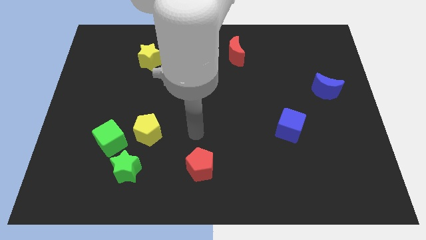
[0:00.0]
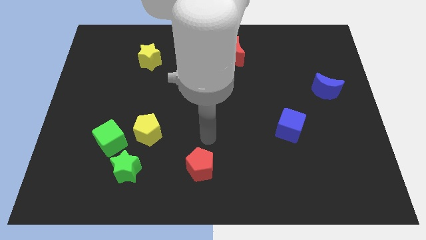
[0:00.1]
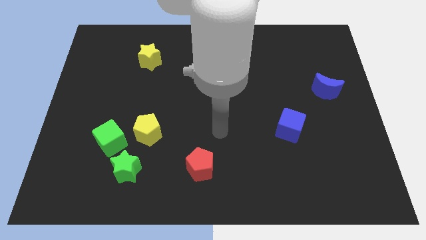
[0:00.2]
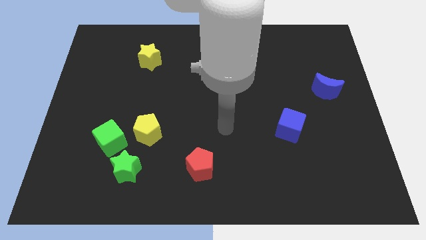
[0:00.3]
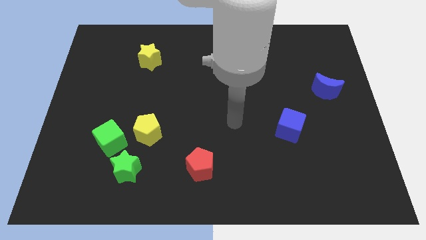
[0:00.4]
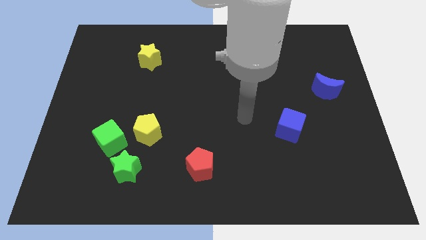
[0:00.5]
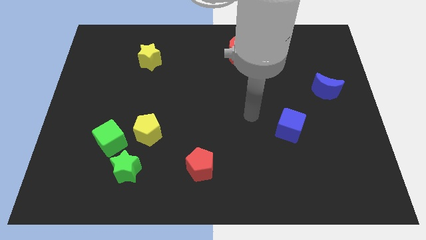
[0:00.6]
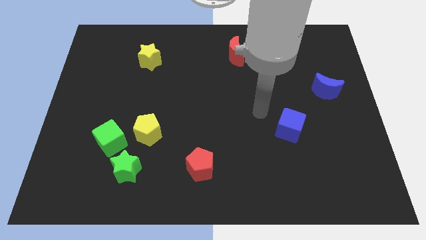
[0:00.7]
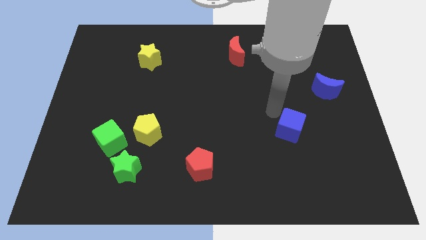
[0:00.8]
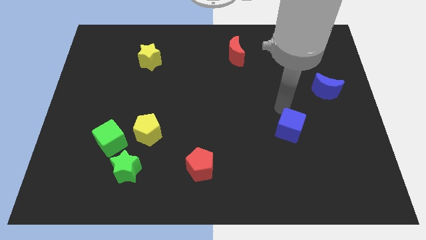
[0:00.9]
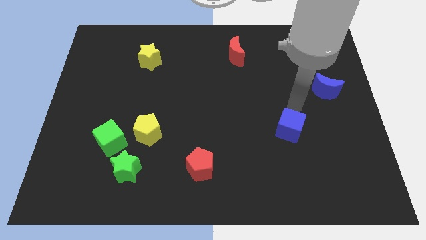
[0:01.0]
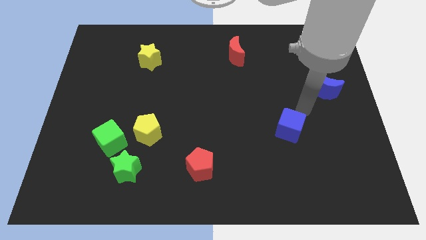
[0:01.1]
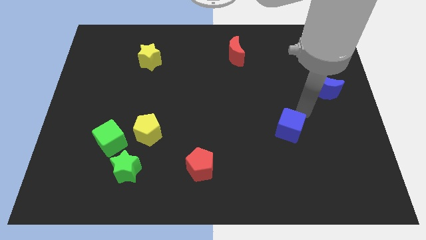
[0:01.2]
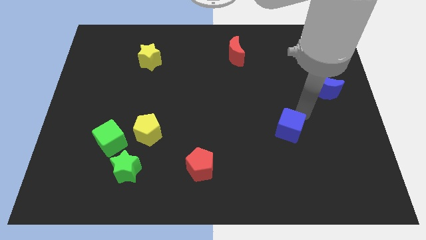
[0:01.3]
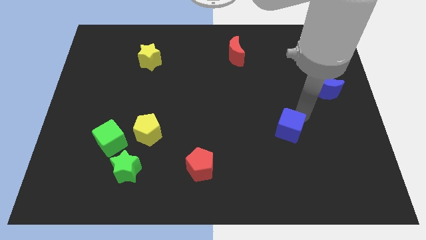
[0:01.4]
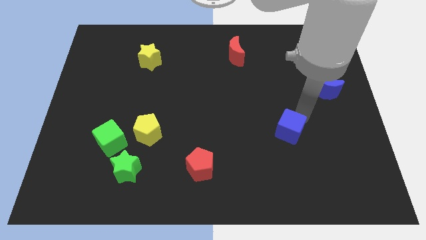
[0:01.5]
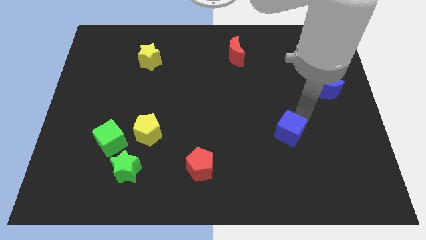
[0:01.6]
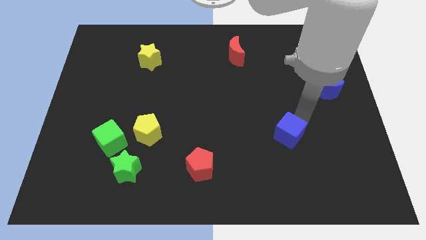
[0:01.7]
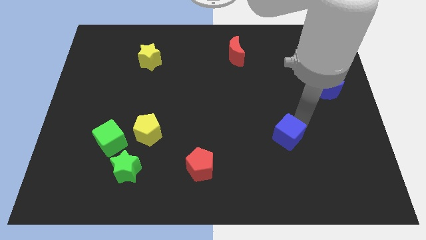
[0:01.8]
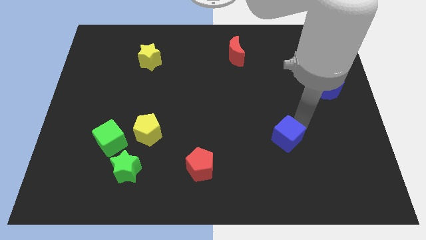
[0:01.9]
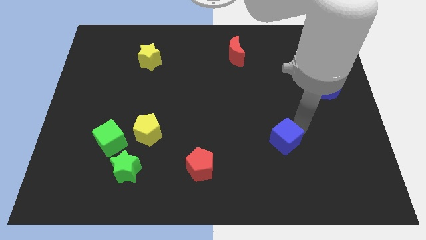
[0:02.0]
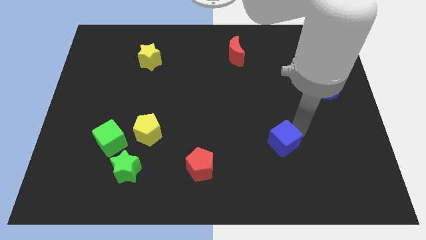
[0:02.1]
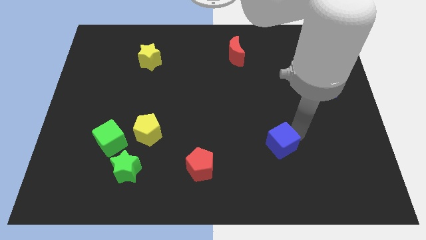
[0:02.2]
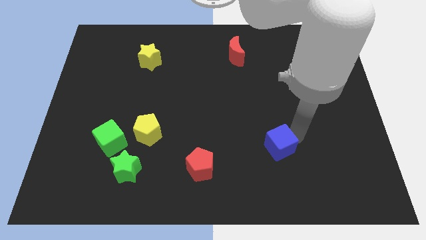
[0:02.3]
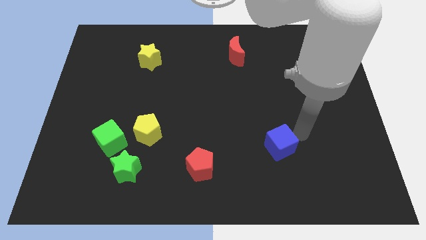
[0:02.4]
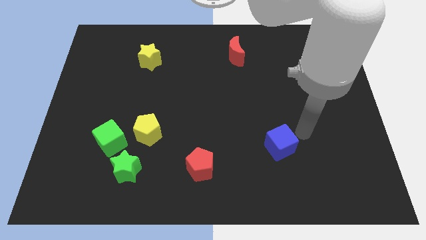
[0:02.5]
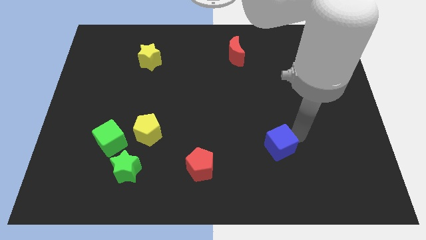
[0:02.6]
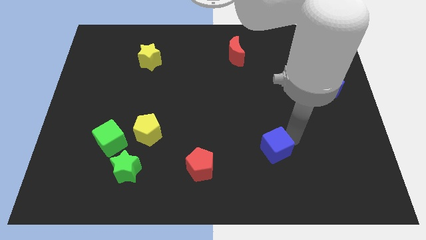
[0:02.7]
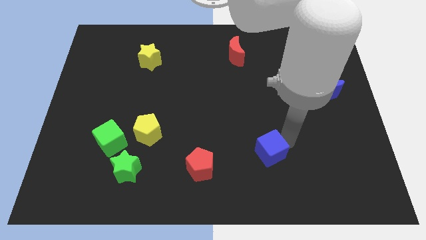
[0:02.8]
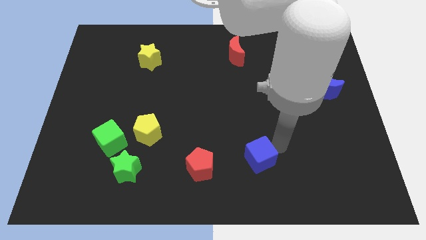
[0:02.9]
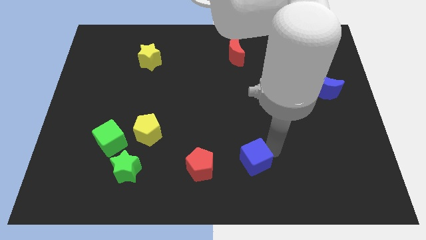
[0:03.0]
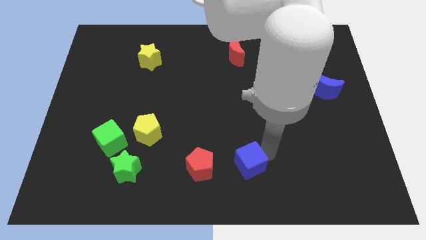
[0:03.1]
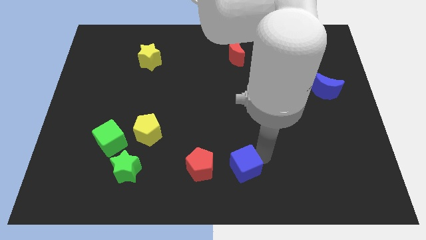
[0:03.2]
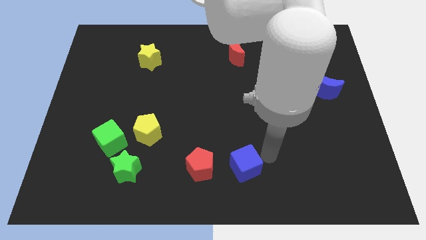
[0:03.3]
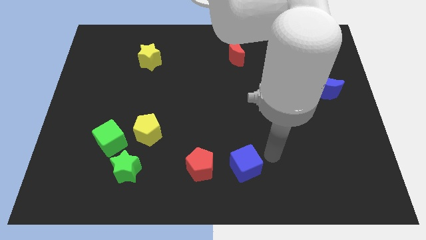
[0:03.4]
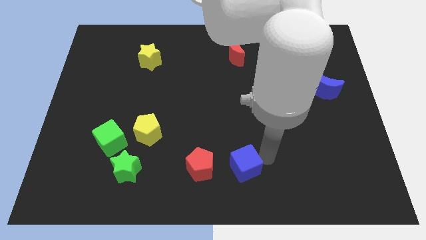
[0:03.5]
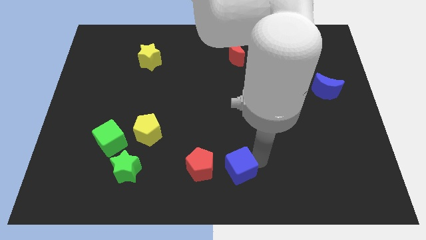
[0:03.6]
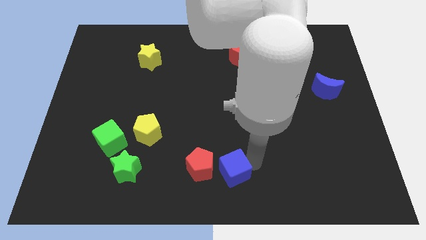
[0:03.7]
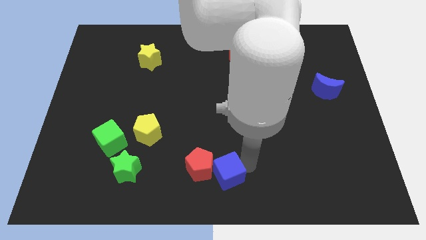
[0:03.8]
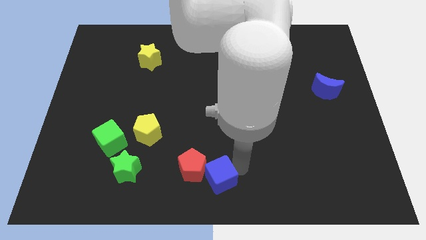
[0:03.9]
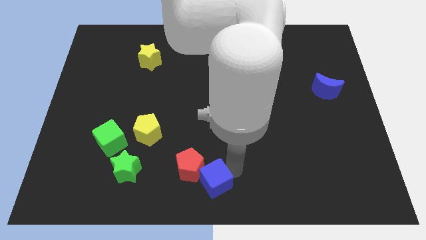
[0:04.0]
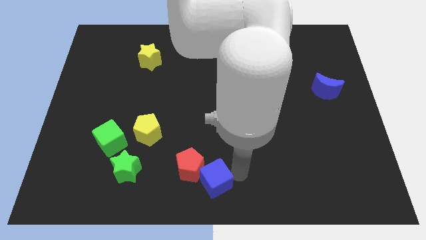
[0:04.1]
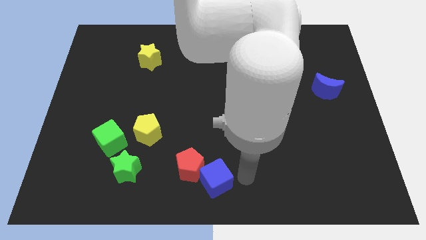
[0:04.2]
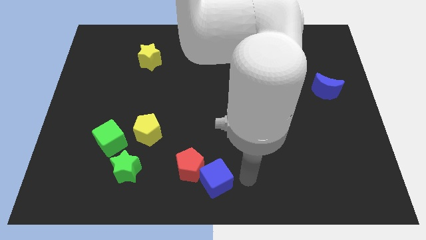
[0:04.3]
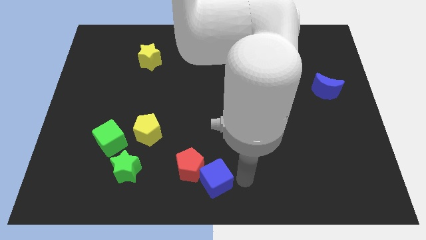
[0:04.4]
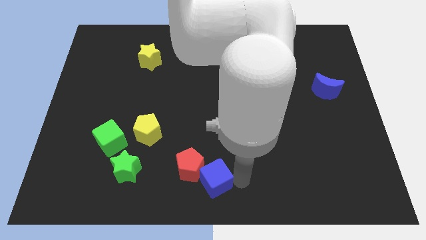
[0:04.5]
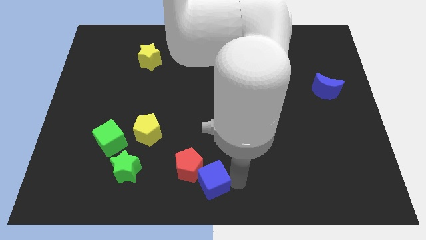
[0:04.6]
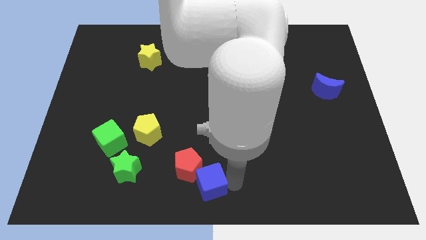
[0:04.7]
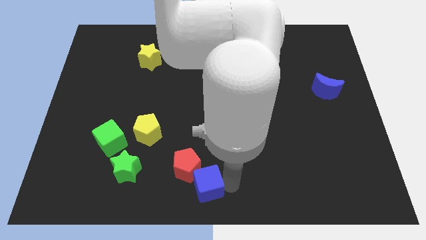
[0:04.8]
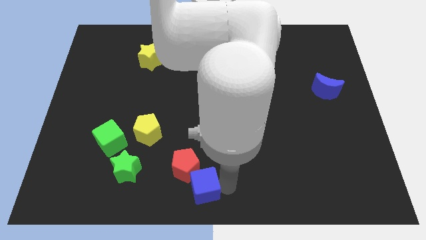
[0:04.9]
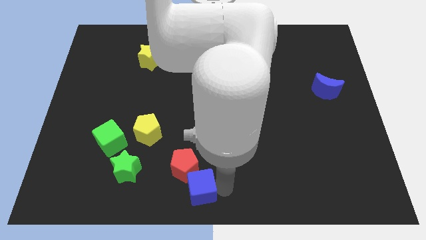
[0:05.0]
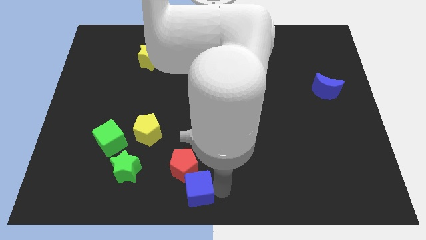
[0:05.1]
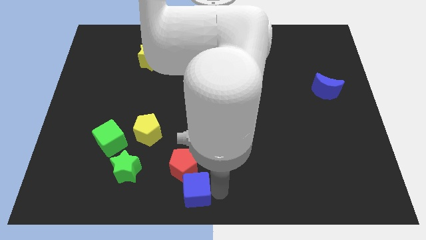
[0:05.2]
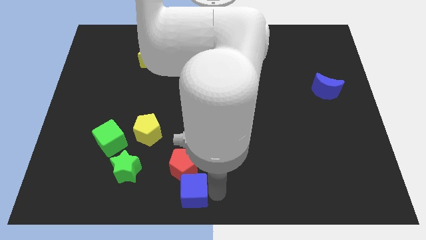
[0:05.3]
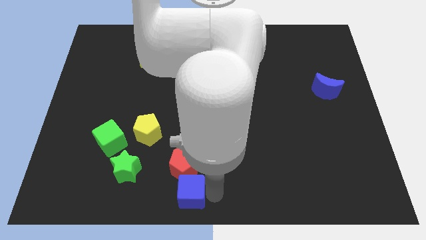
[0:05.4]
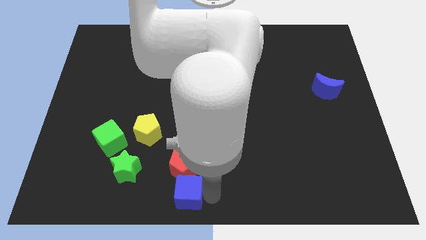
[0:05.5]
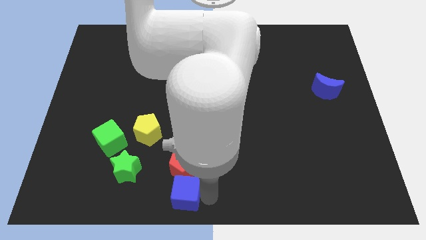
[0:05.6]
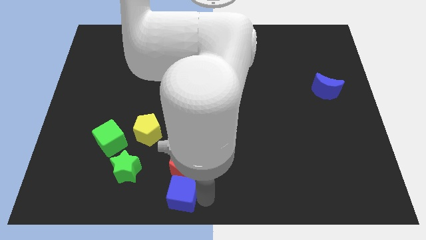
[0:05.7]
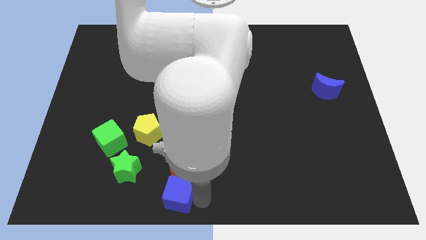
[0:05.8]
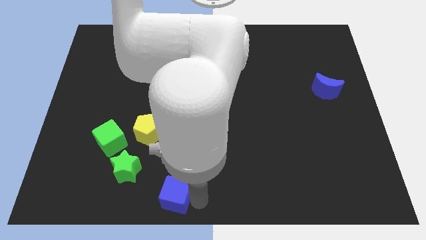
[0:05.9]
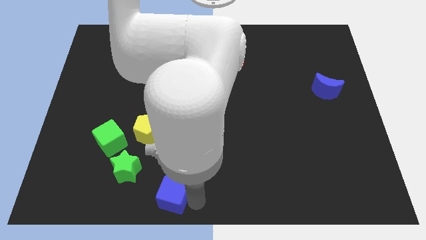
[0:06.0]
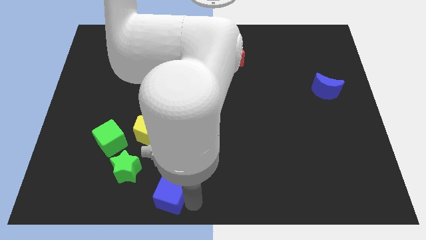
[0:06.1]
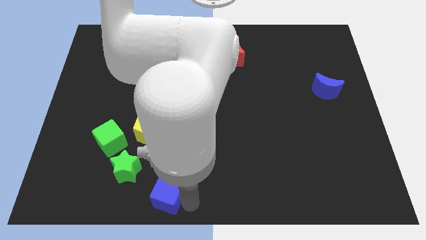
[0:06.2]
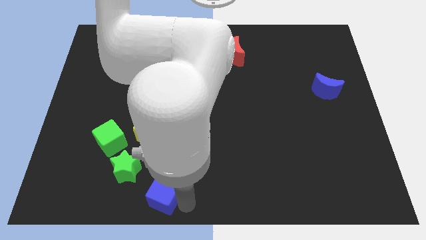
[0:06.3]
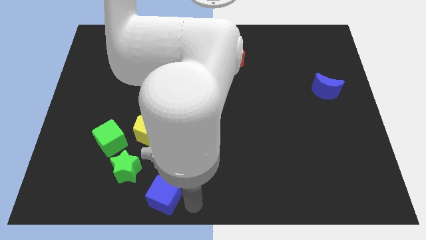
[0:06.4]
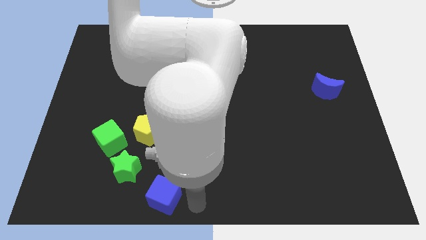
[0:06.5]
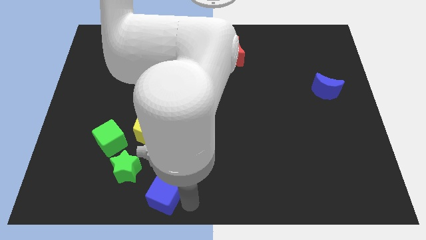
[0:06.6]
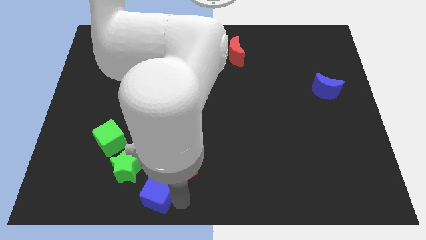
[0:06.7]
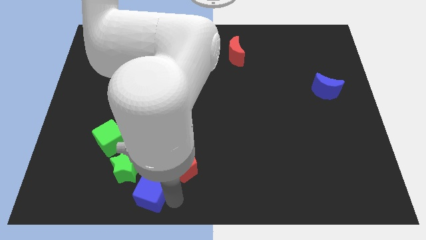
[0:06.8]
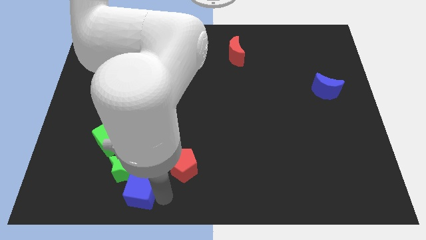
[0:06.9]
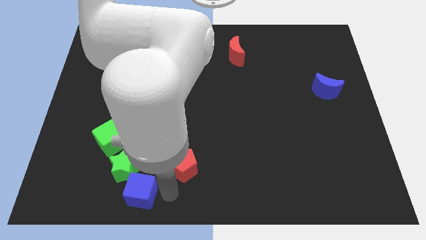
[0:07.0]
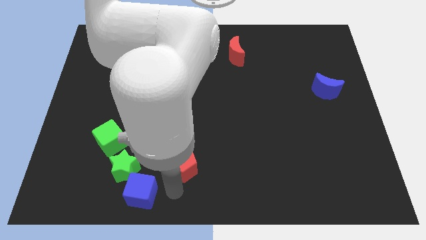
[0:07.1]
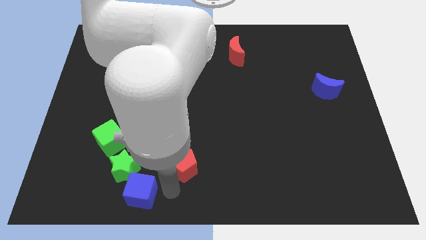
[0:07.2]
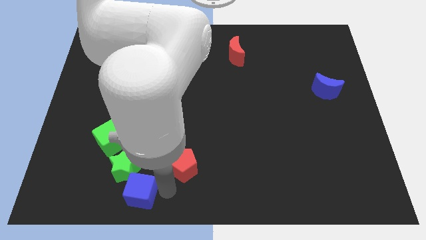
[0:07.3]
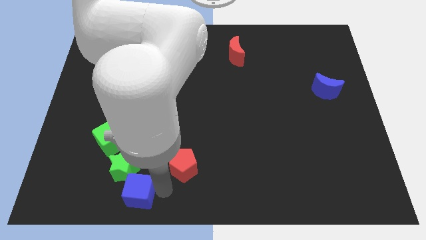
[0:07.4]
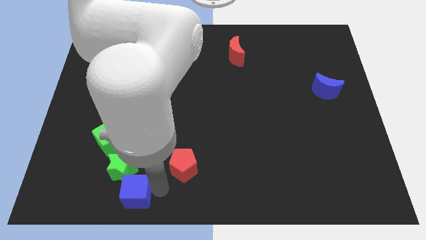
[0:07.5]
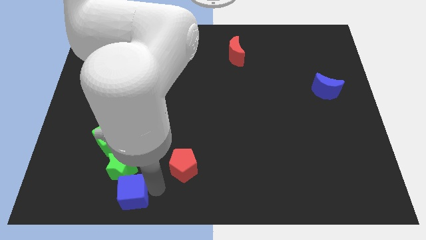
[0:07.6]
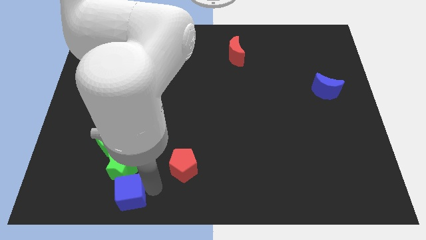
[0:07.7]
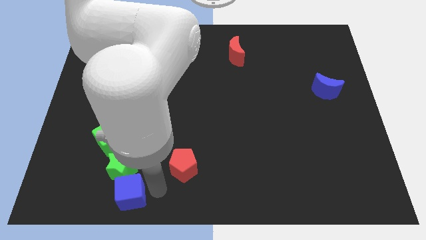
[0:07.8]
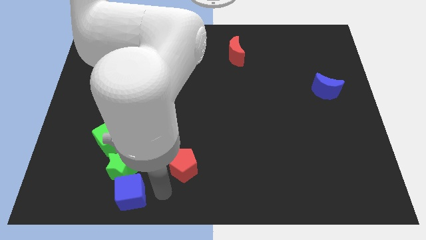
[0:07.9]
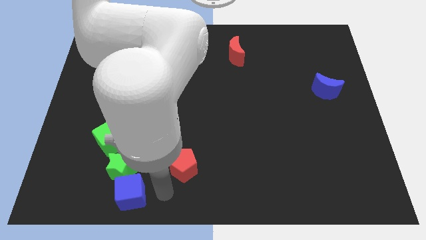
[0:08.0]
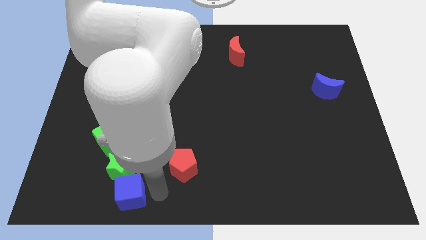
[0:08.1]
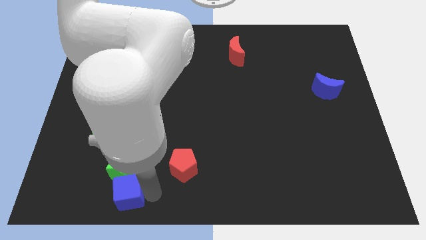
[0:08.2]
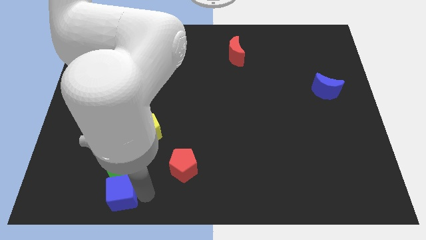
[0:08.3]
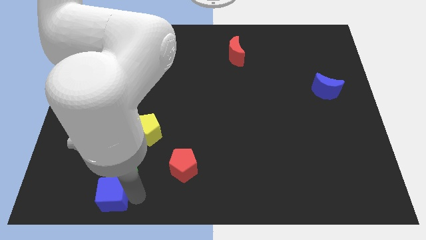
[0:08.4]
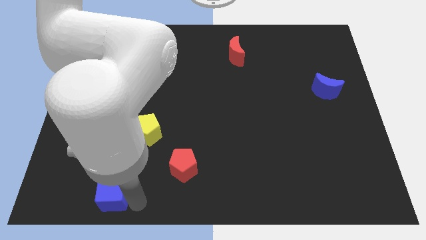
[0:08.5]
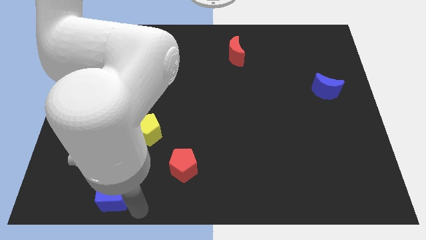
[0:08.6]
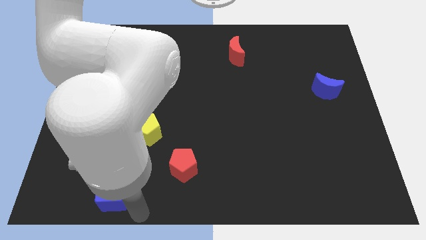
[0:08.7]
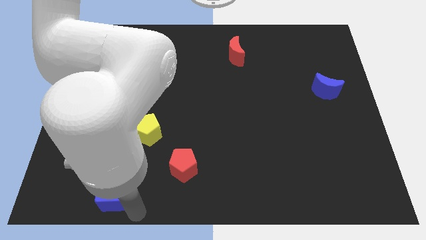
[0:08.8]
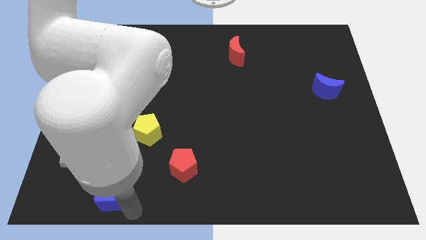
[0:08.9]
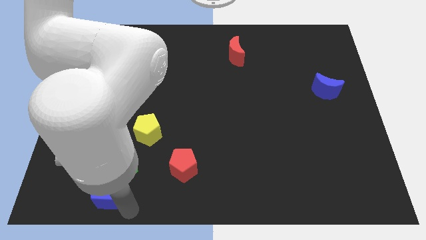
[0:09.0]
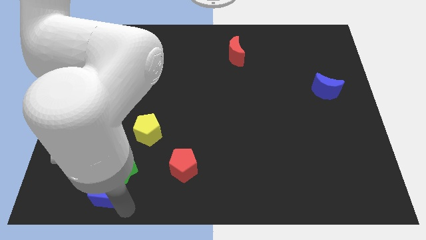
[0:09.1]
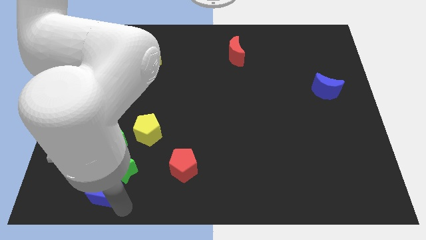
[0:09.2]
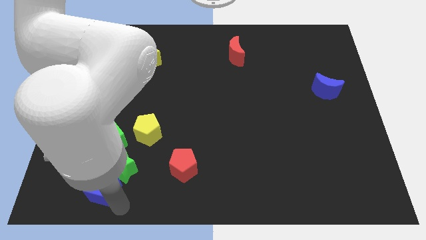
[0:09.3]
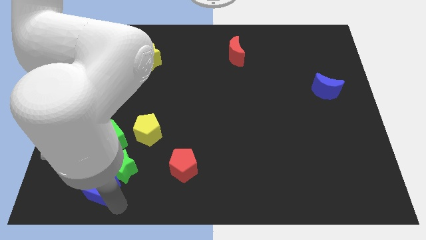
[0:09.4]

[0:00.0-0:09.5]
slide the blue cube to the left side of the green star
